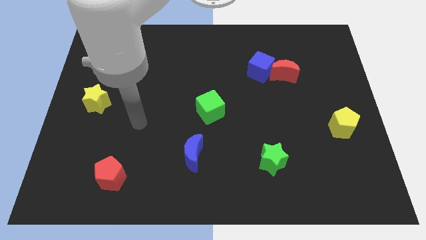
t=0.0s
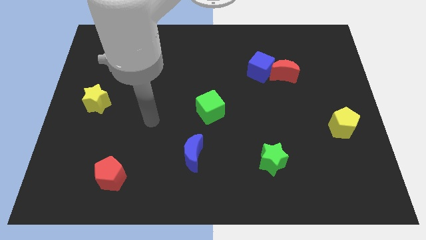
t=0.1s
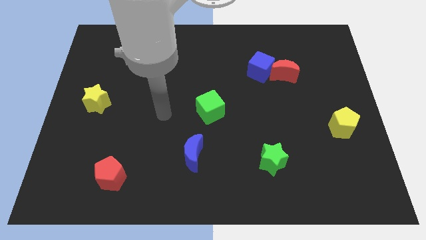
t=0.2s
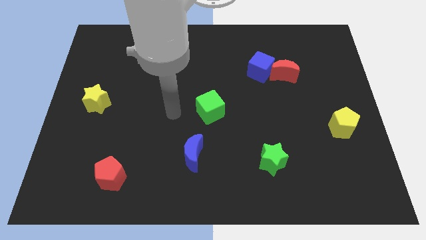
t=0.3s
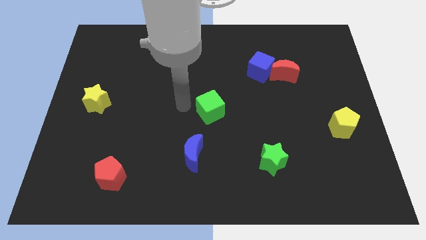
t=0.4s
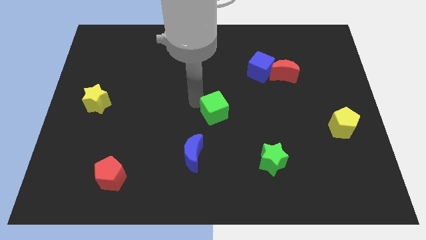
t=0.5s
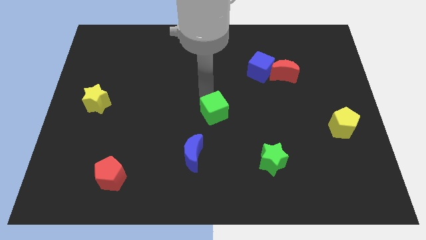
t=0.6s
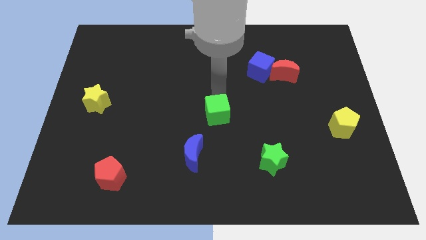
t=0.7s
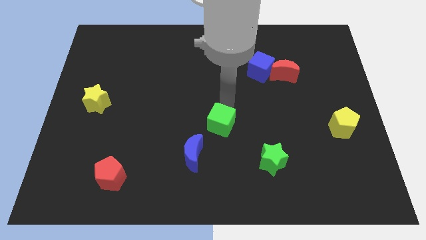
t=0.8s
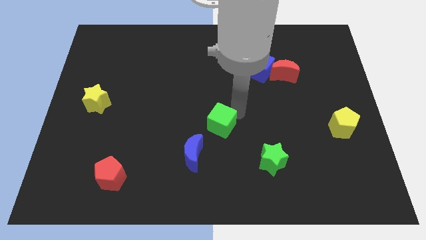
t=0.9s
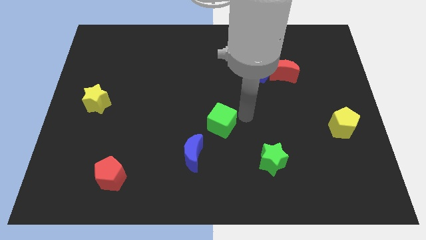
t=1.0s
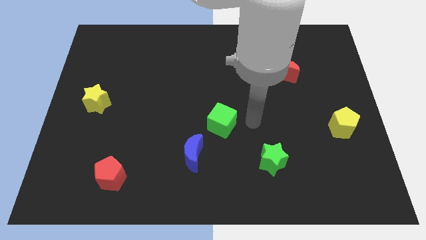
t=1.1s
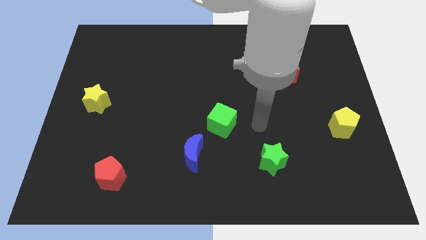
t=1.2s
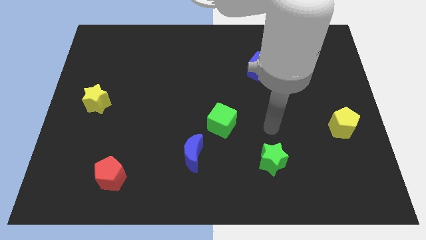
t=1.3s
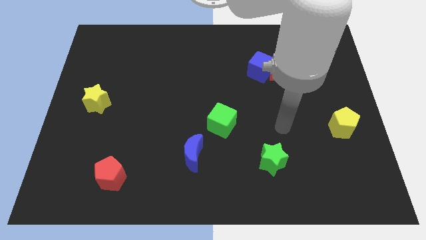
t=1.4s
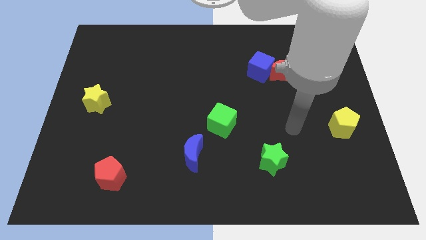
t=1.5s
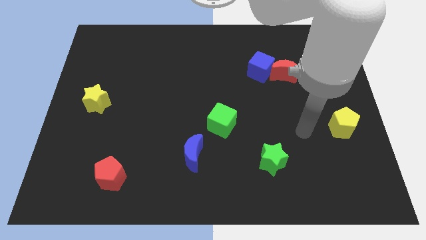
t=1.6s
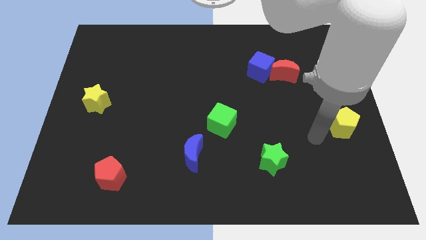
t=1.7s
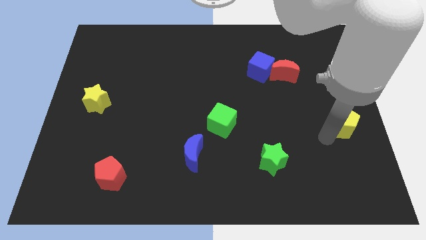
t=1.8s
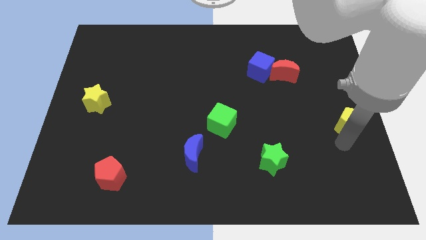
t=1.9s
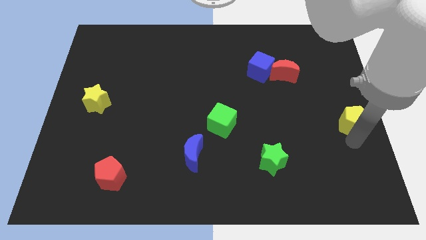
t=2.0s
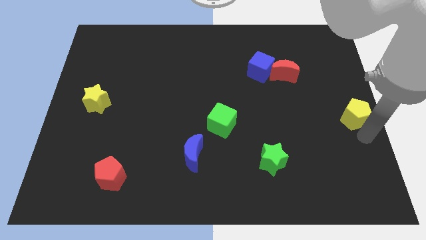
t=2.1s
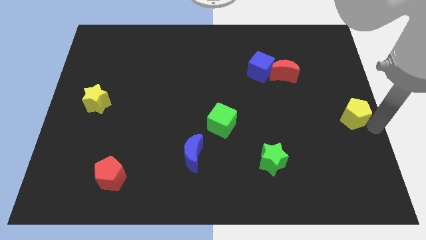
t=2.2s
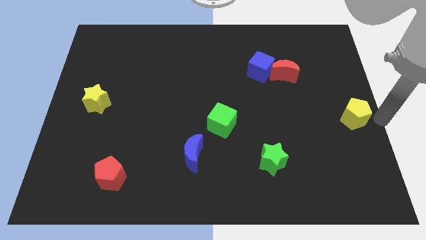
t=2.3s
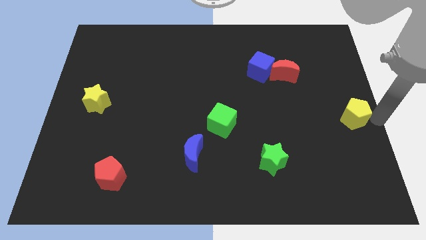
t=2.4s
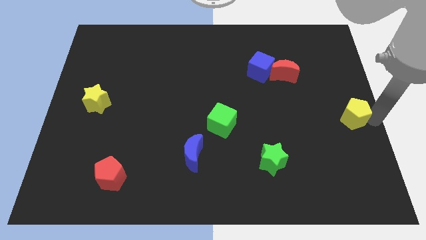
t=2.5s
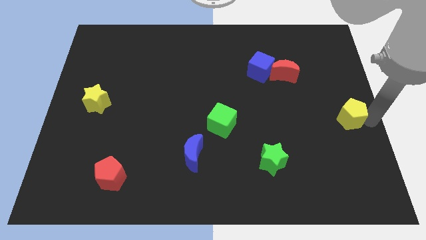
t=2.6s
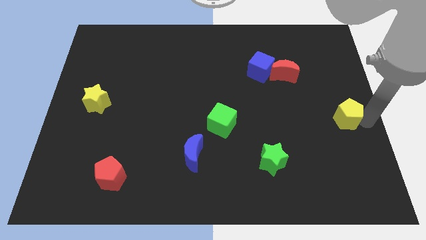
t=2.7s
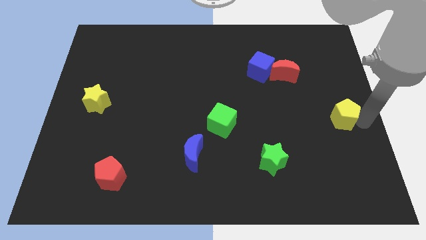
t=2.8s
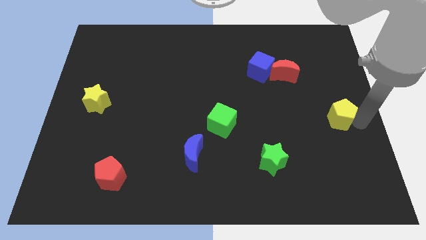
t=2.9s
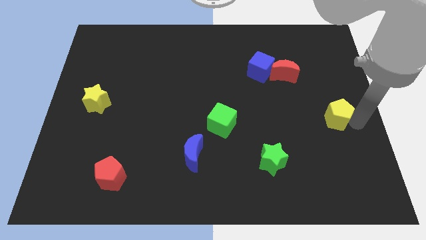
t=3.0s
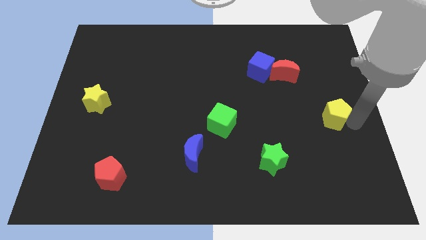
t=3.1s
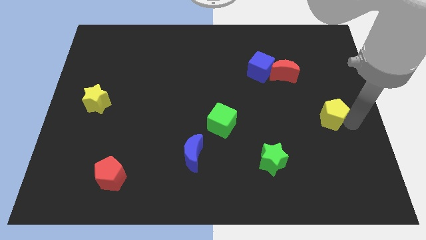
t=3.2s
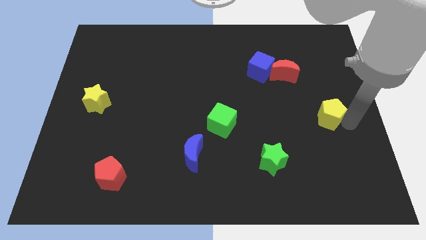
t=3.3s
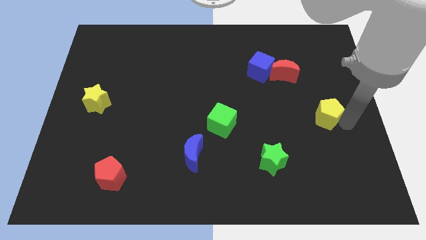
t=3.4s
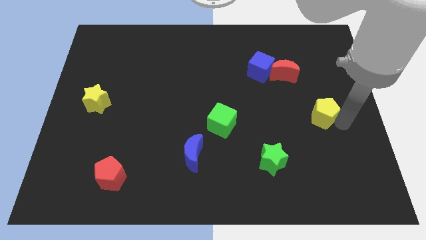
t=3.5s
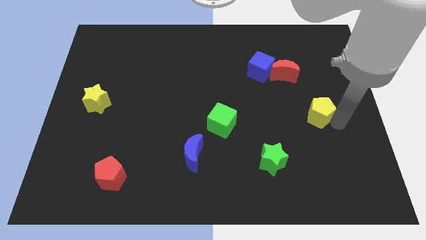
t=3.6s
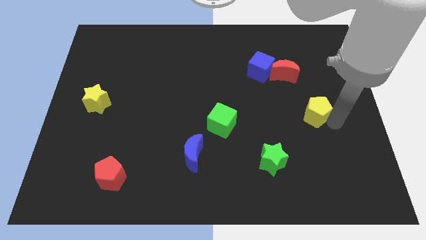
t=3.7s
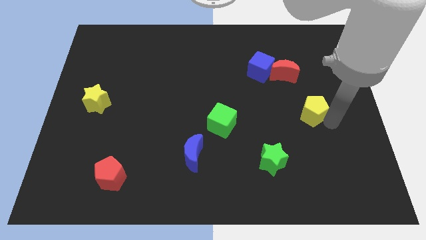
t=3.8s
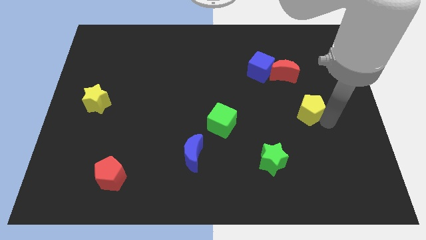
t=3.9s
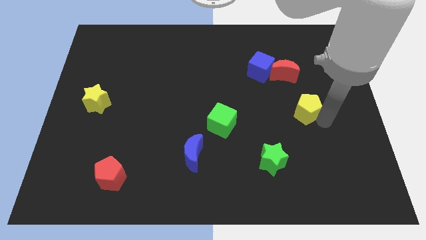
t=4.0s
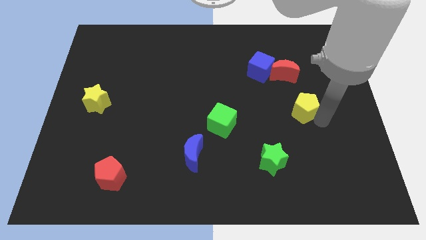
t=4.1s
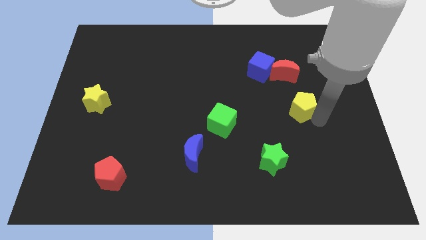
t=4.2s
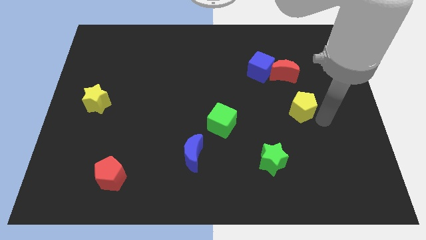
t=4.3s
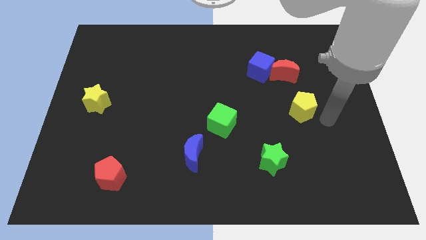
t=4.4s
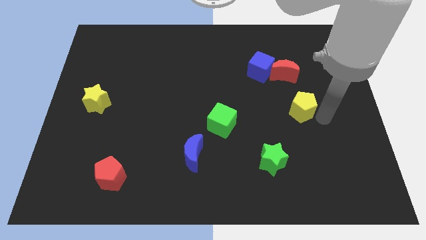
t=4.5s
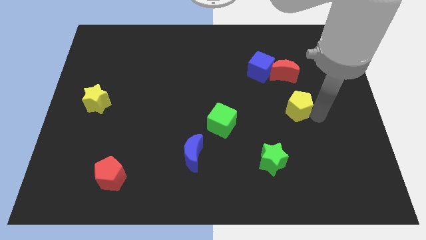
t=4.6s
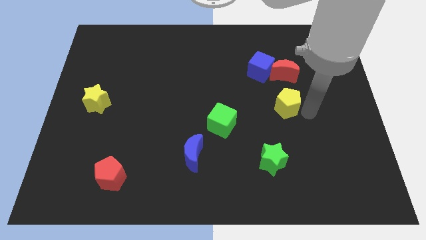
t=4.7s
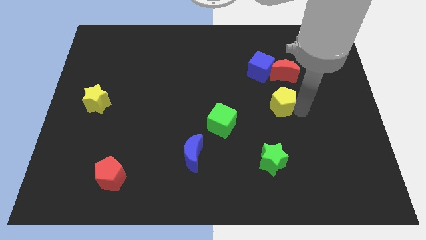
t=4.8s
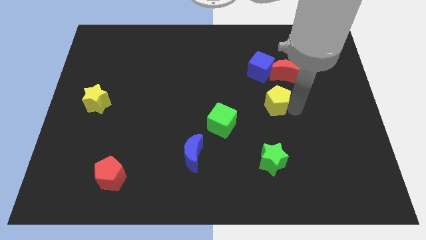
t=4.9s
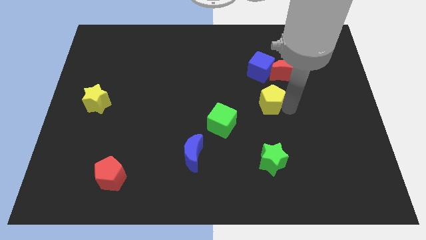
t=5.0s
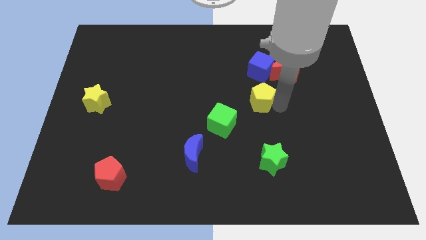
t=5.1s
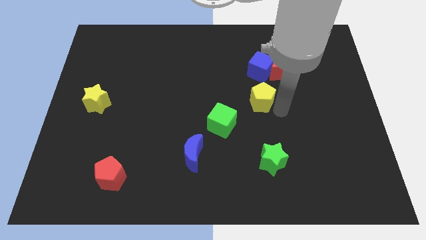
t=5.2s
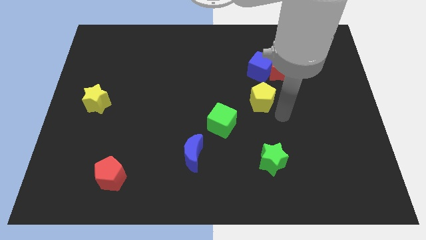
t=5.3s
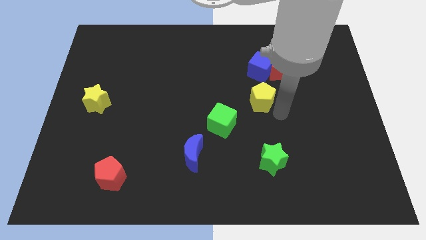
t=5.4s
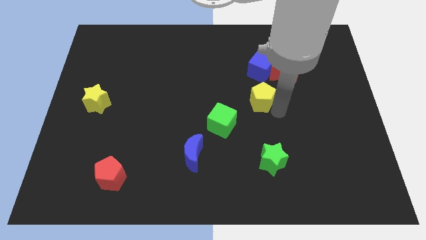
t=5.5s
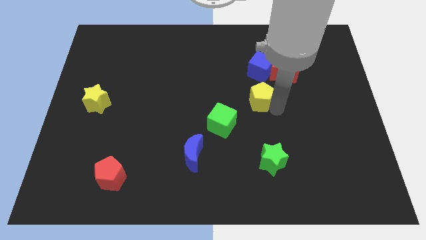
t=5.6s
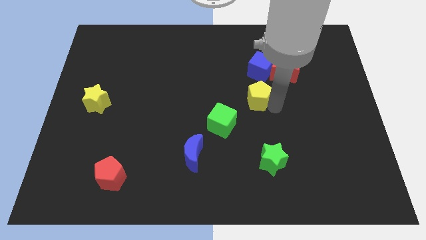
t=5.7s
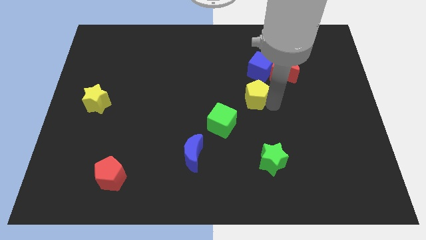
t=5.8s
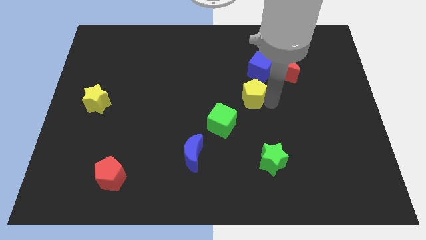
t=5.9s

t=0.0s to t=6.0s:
move the yellow pentagon diagonally down and to the left of the blue cube

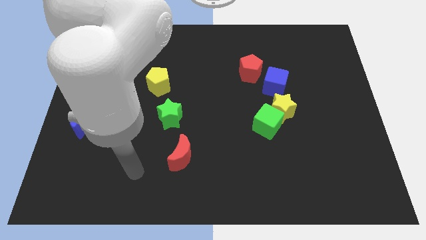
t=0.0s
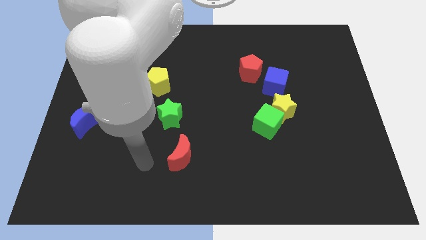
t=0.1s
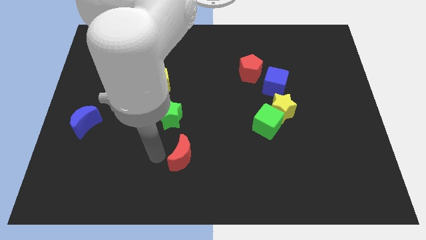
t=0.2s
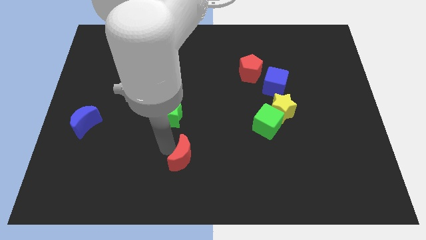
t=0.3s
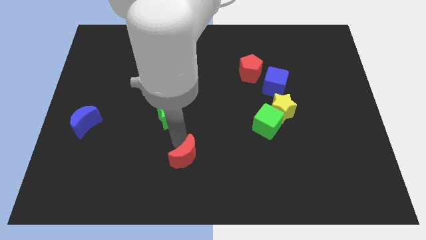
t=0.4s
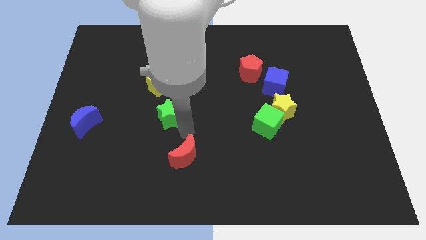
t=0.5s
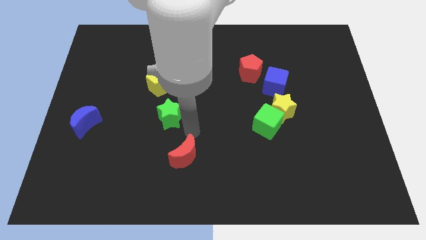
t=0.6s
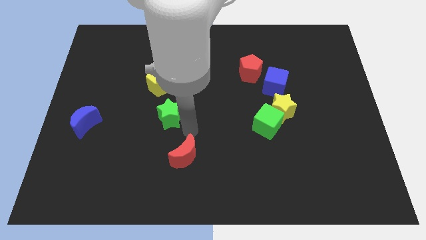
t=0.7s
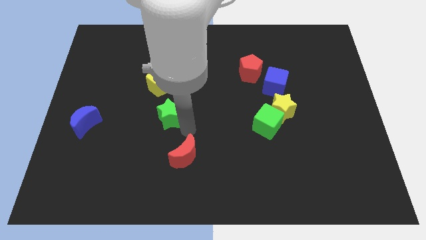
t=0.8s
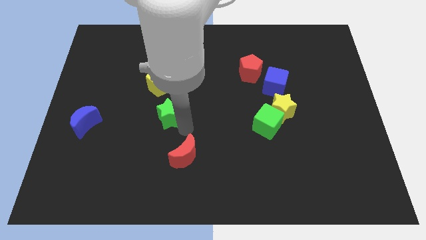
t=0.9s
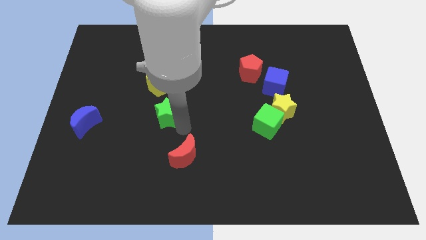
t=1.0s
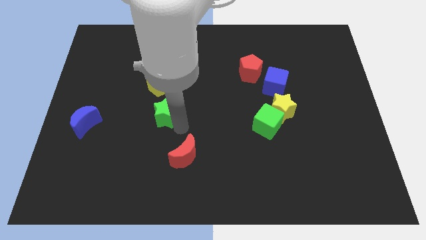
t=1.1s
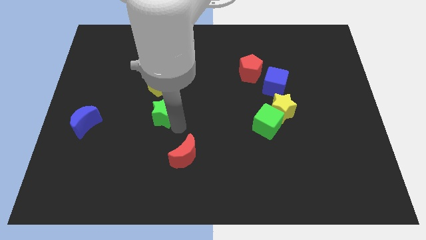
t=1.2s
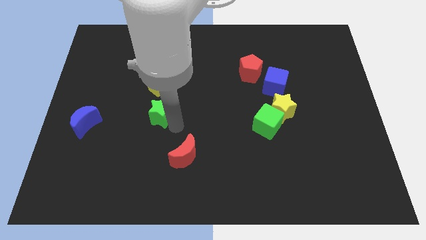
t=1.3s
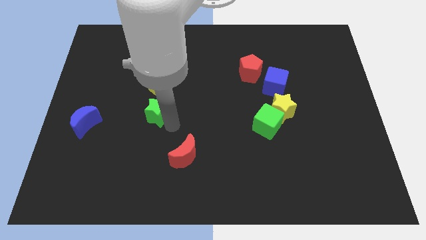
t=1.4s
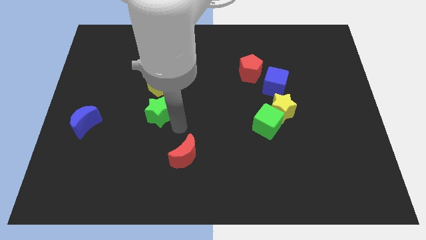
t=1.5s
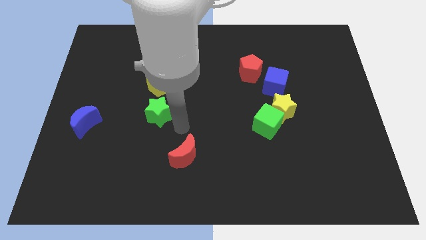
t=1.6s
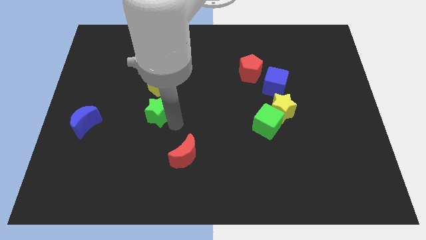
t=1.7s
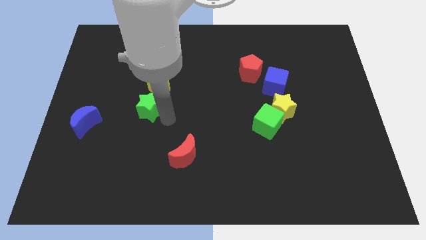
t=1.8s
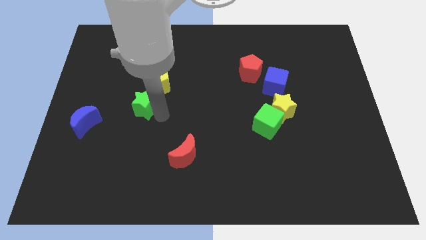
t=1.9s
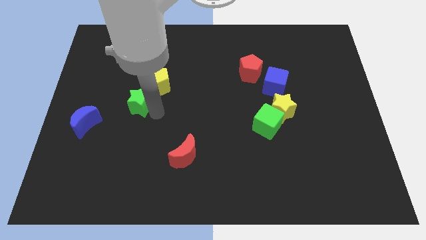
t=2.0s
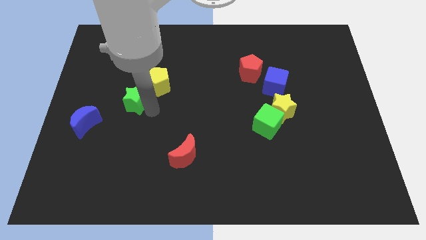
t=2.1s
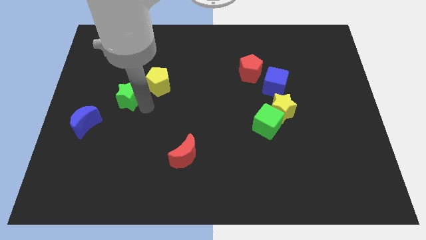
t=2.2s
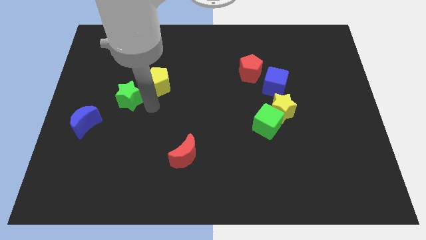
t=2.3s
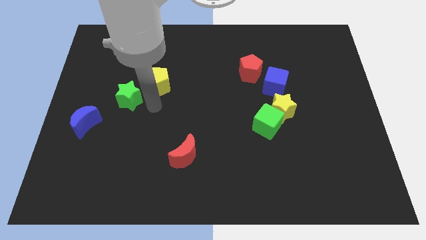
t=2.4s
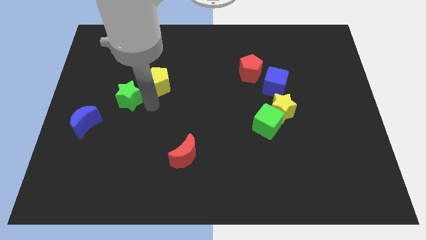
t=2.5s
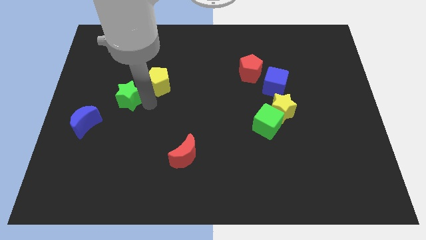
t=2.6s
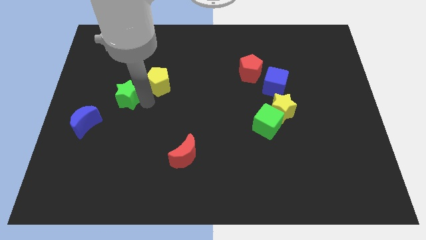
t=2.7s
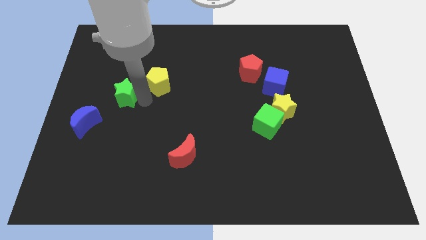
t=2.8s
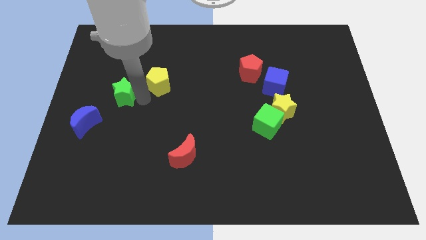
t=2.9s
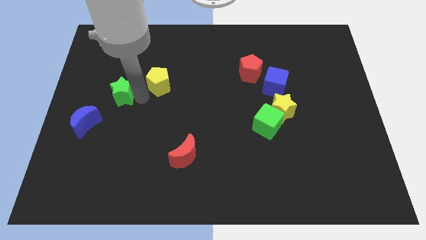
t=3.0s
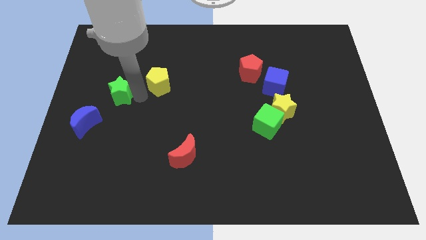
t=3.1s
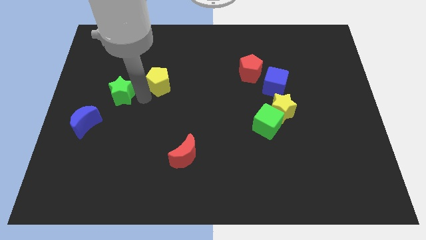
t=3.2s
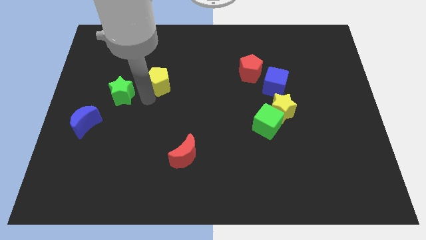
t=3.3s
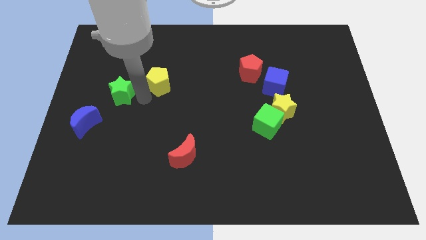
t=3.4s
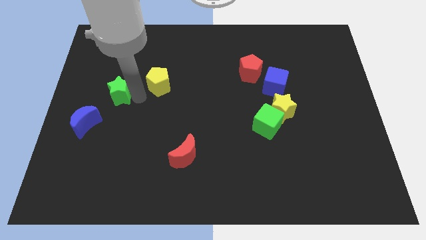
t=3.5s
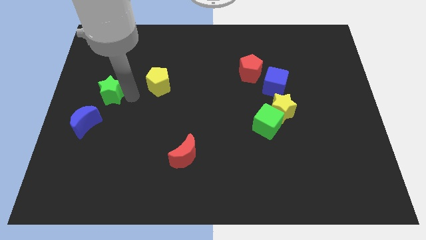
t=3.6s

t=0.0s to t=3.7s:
slide the green star to the top of the blue moon
